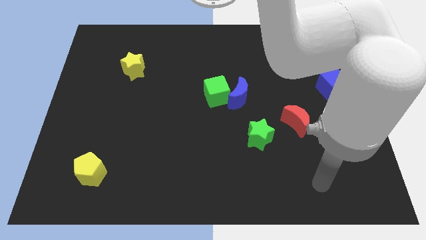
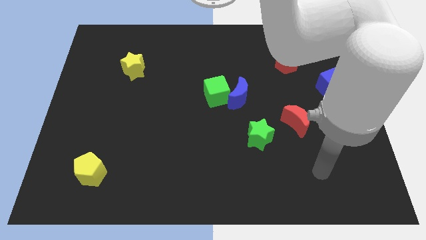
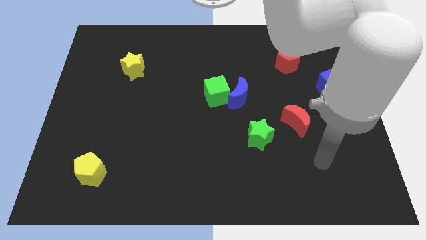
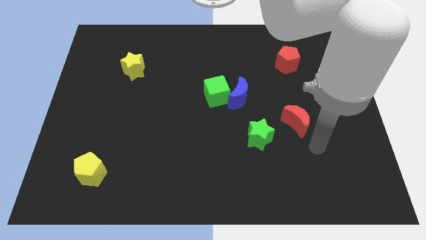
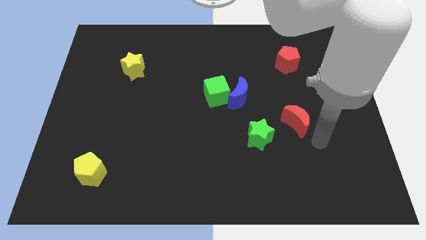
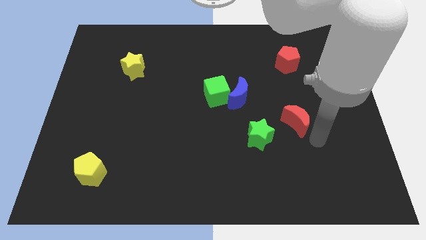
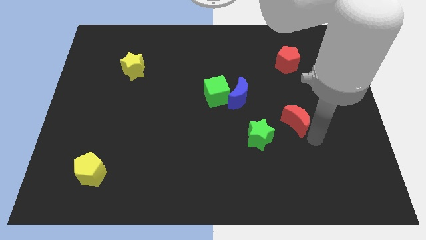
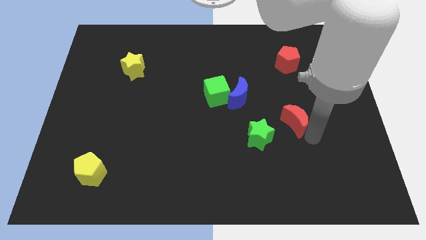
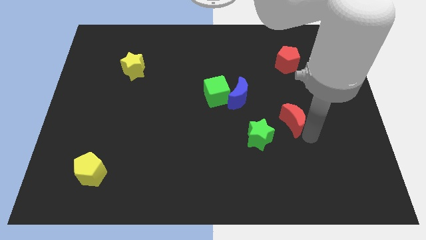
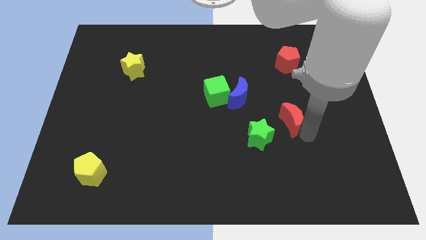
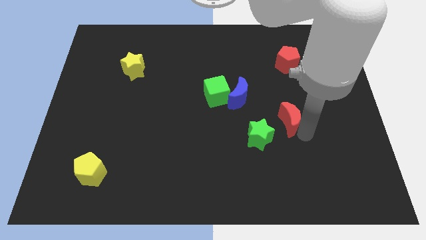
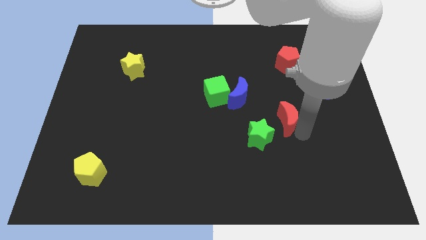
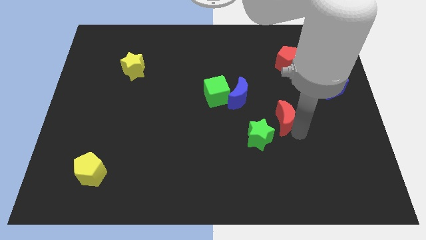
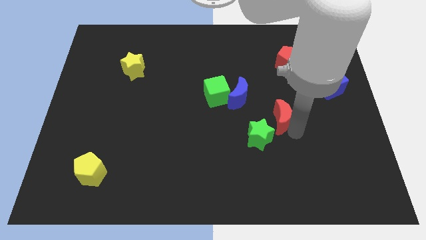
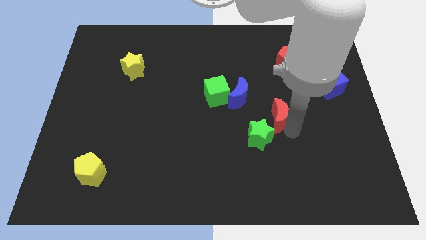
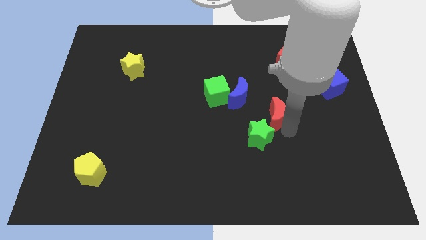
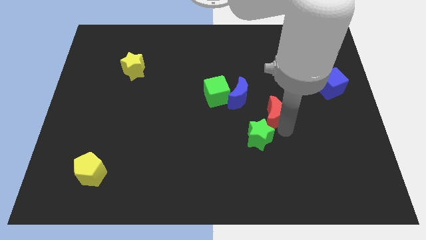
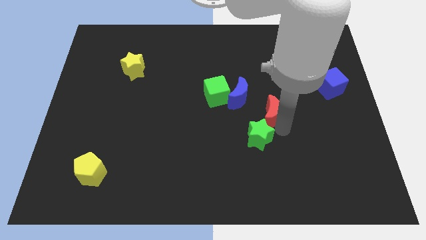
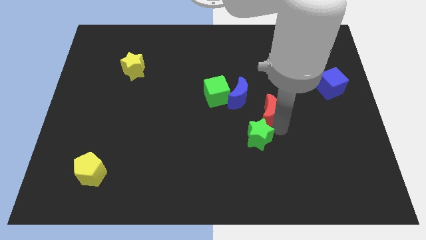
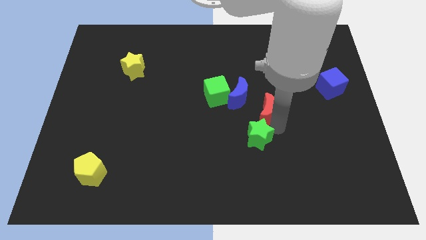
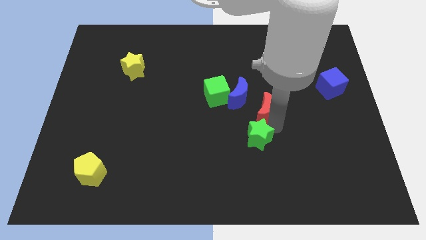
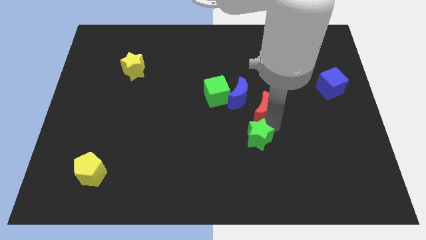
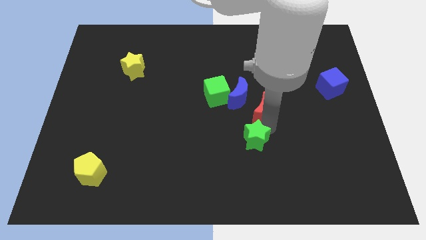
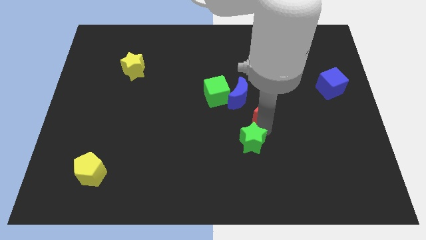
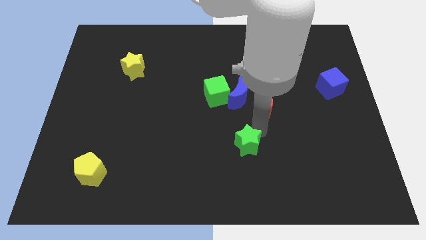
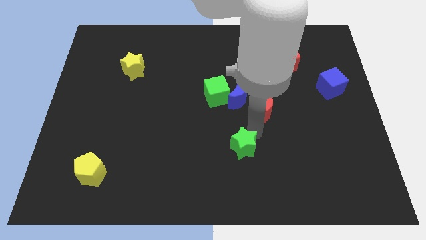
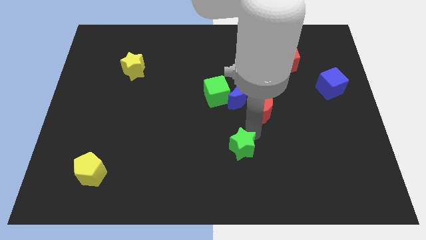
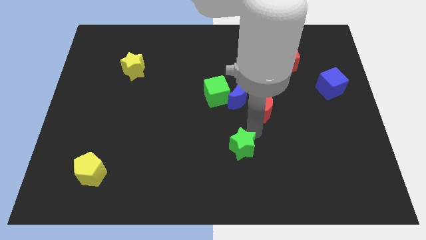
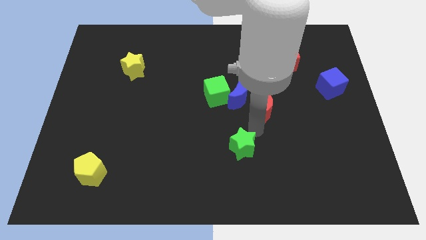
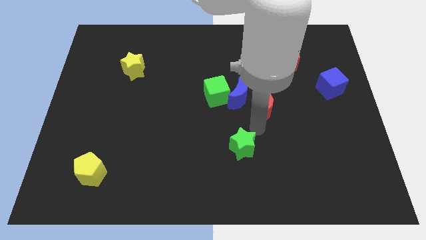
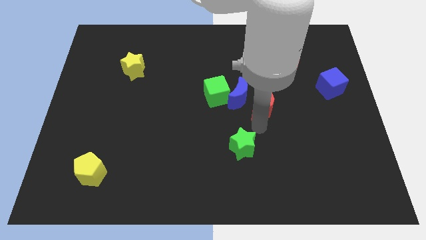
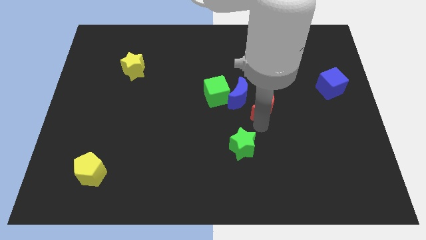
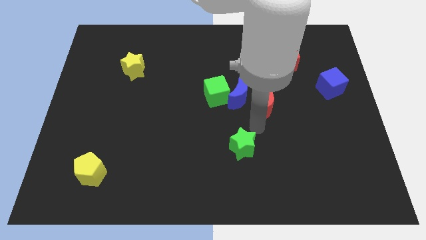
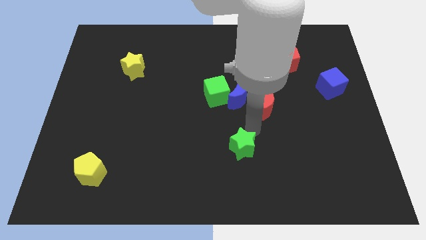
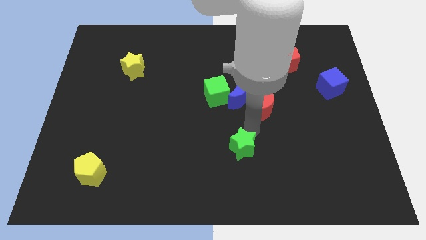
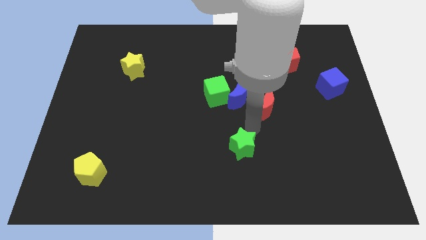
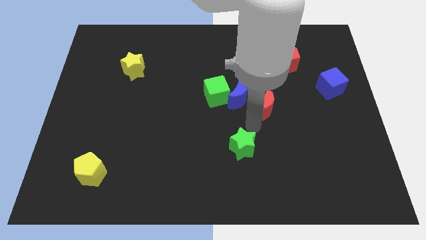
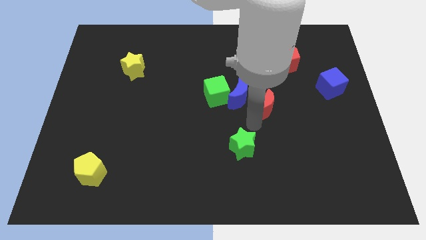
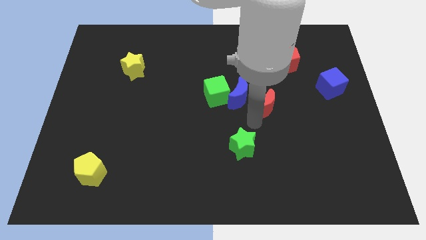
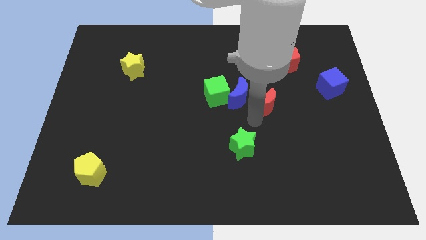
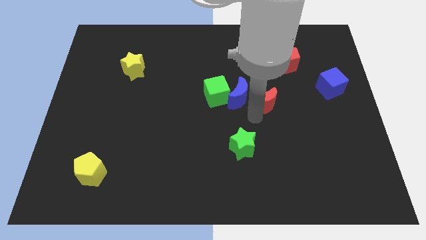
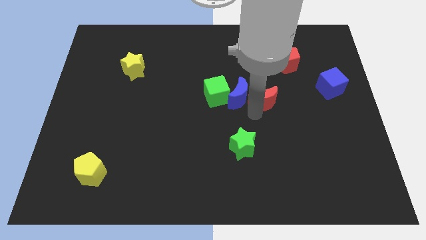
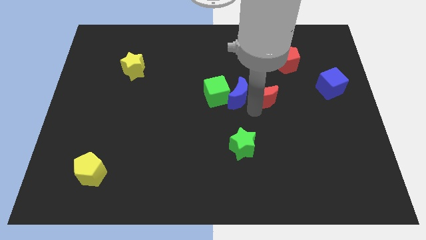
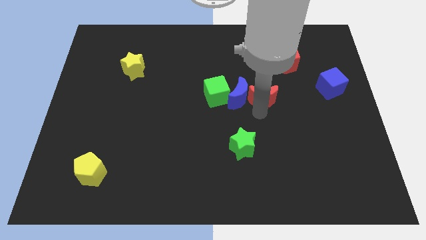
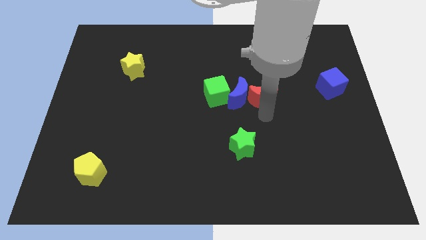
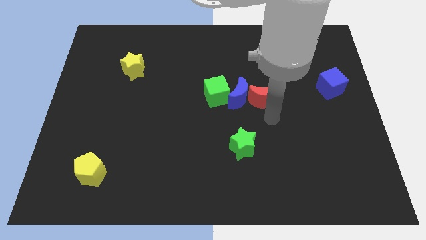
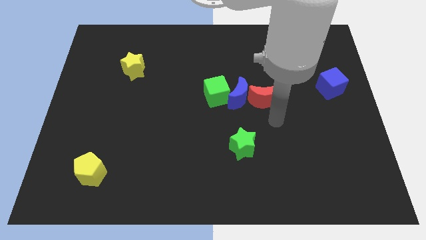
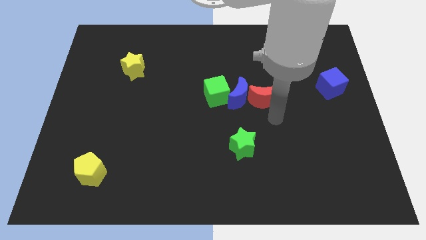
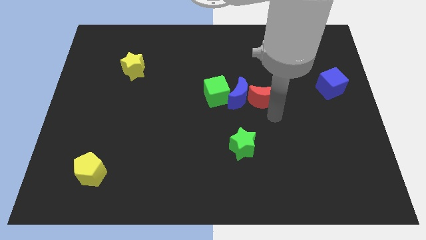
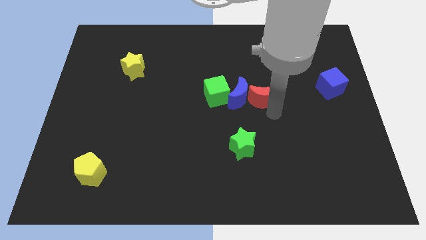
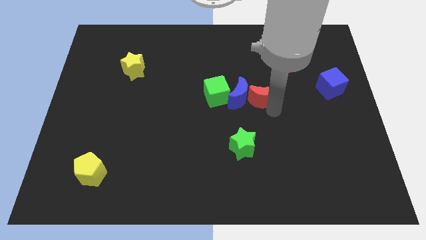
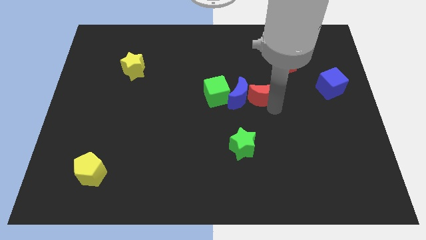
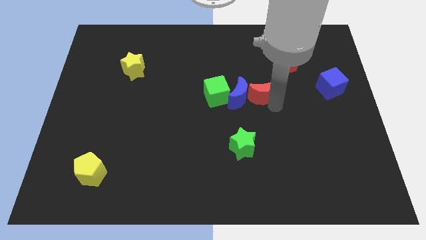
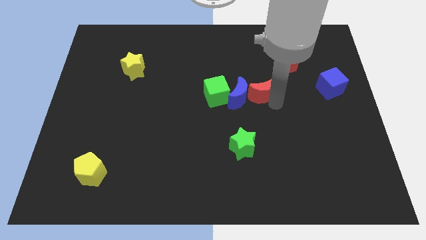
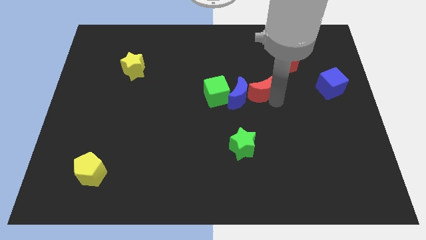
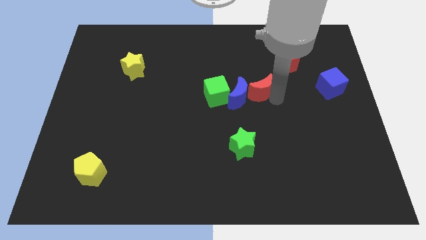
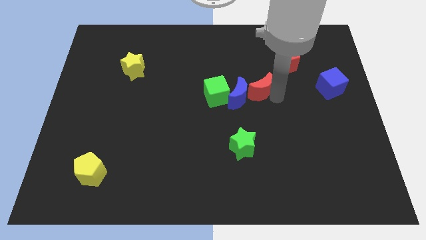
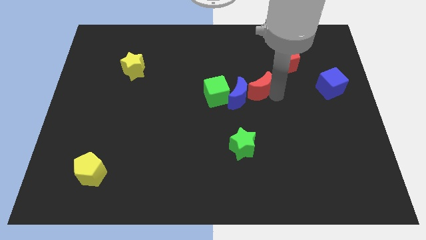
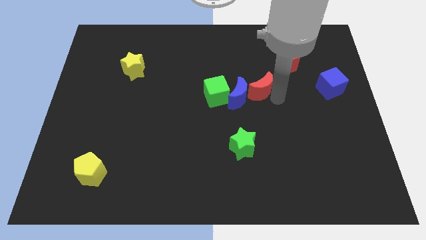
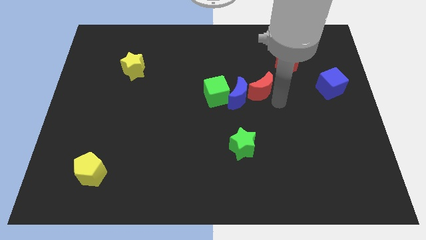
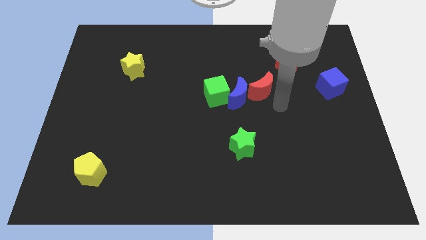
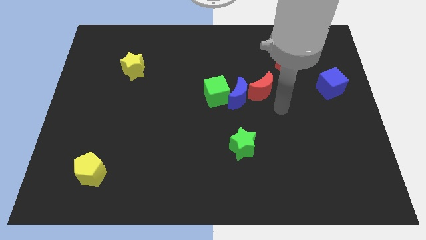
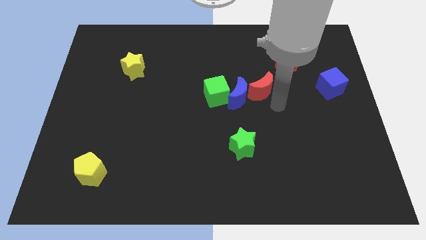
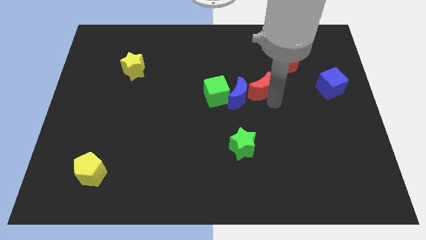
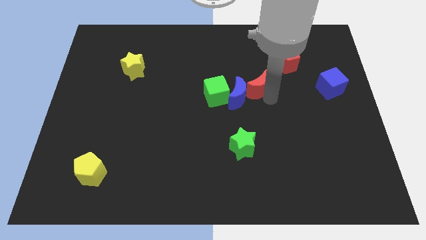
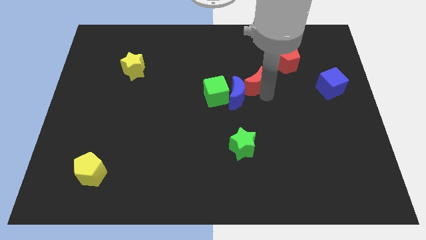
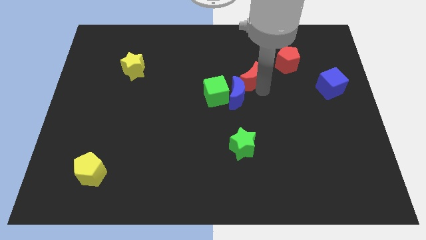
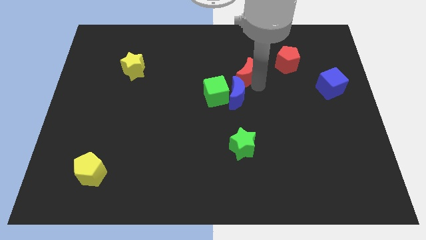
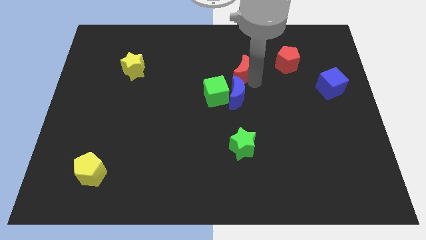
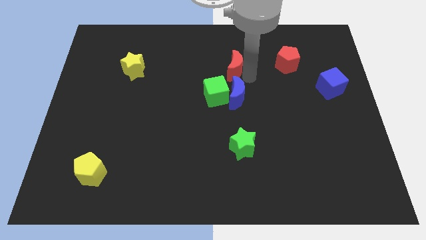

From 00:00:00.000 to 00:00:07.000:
put the red moon to the top of the green cube
